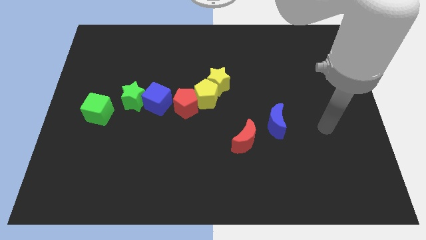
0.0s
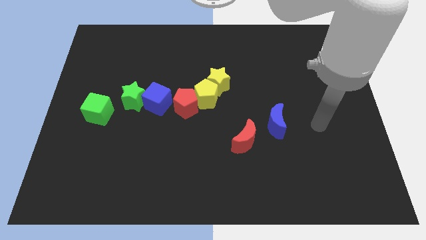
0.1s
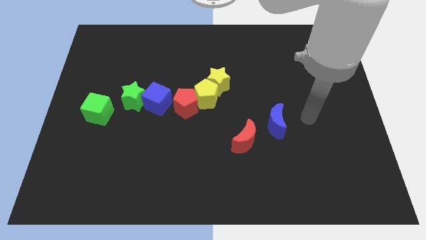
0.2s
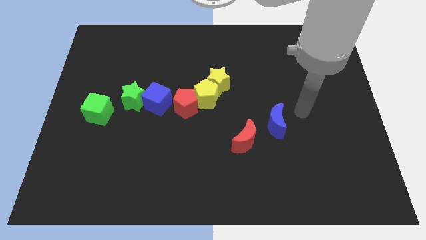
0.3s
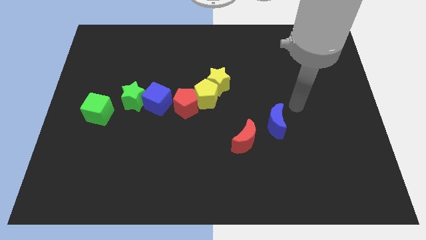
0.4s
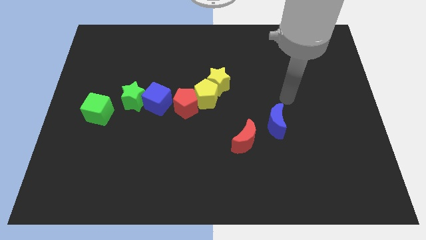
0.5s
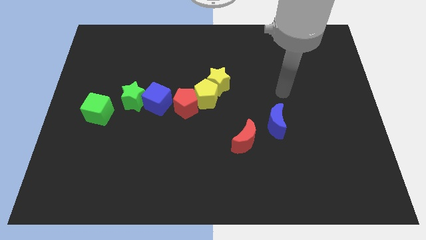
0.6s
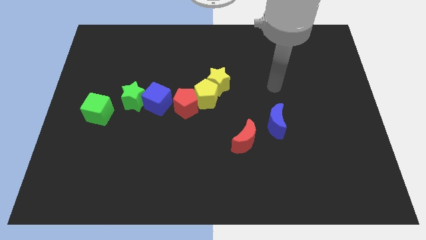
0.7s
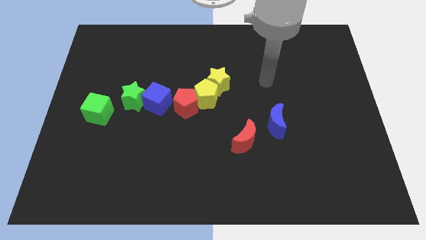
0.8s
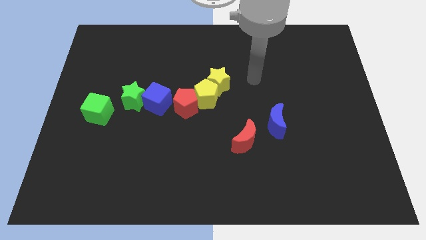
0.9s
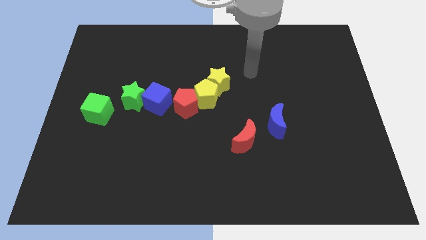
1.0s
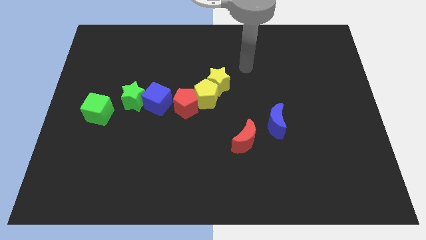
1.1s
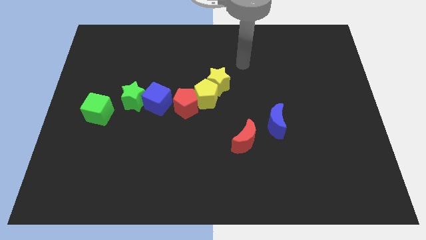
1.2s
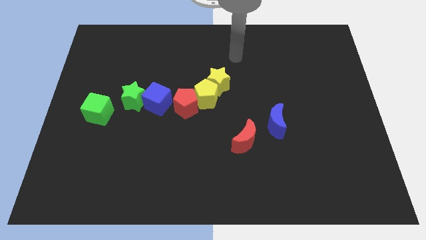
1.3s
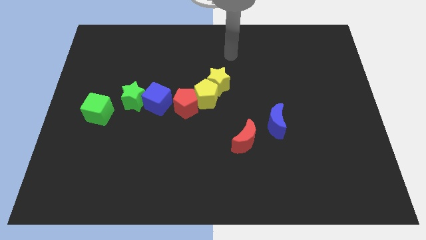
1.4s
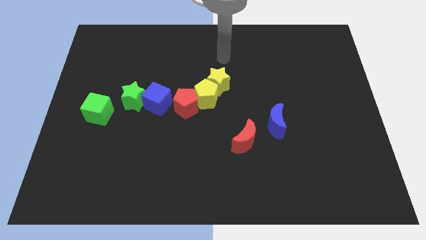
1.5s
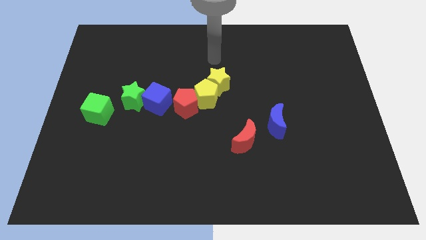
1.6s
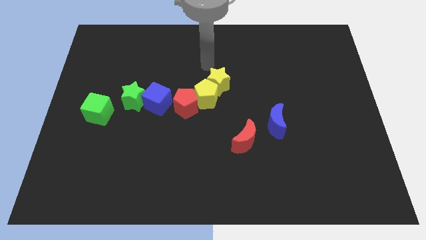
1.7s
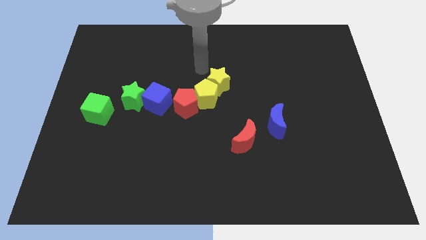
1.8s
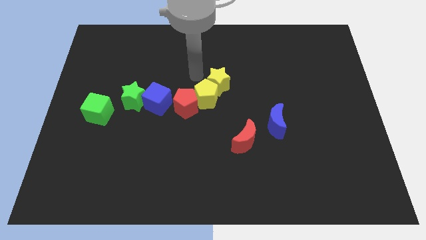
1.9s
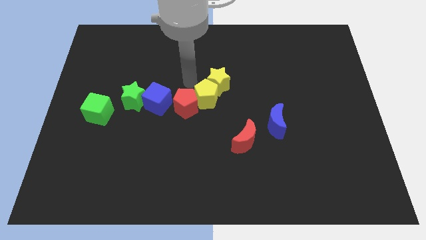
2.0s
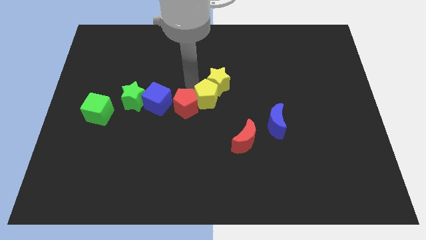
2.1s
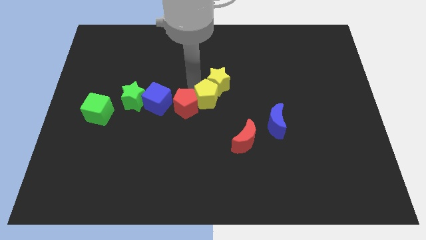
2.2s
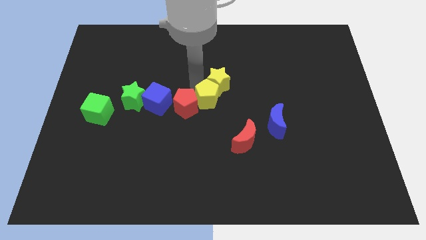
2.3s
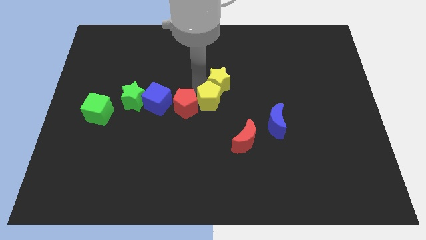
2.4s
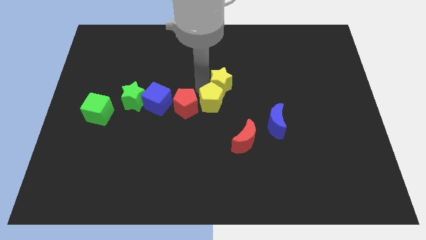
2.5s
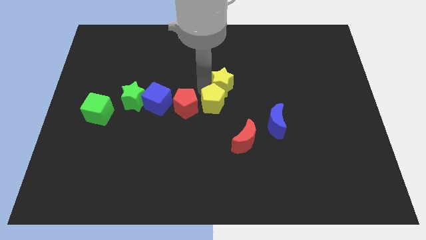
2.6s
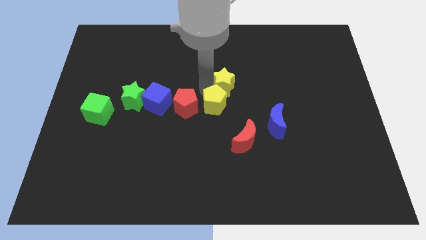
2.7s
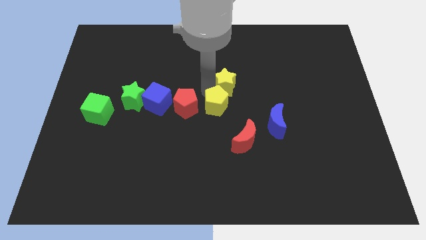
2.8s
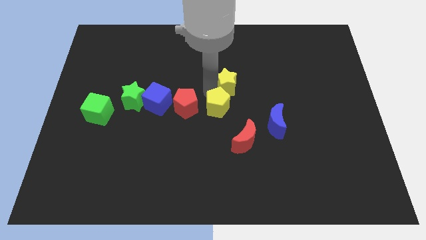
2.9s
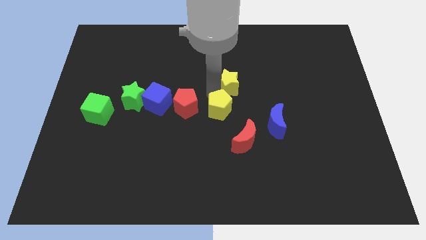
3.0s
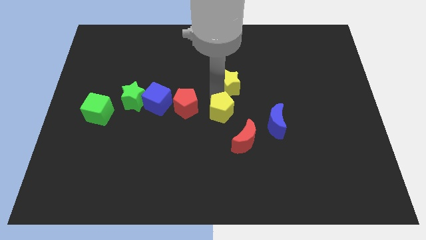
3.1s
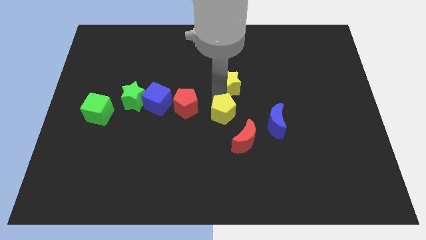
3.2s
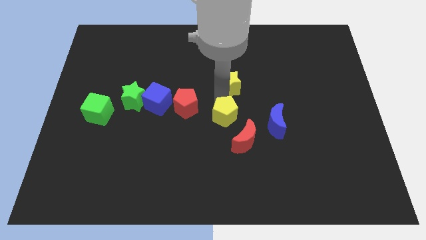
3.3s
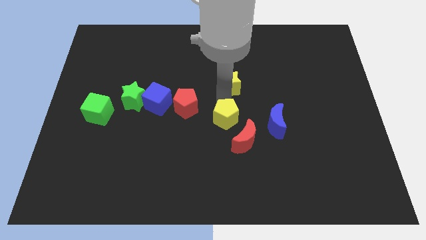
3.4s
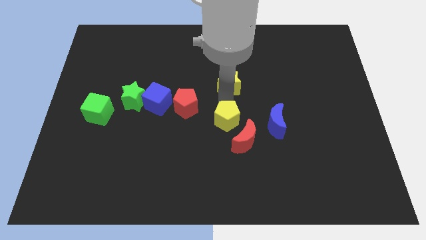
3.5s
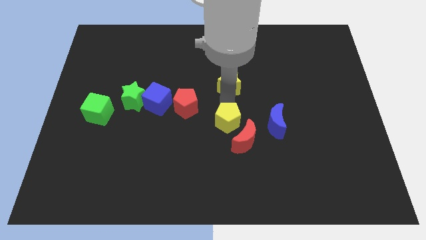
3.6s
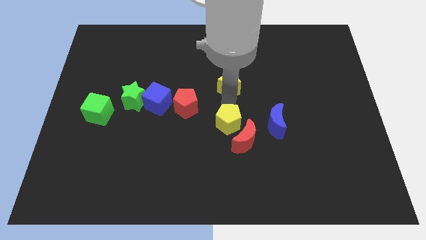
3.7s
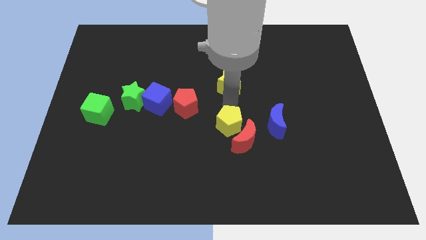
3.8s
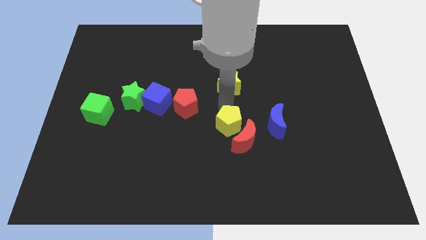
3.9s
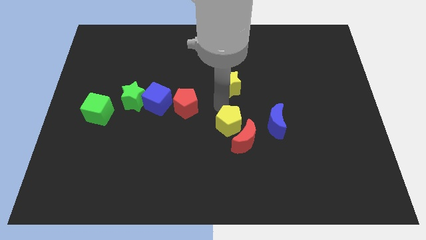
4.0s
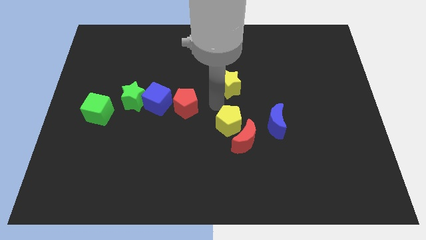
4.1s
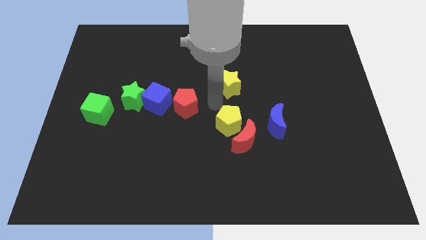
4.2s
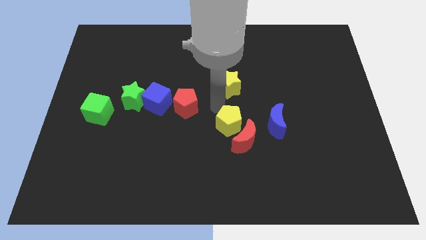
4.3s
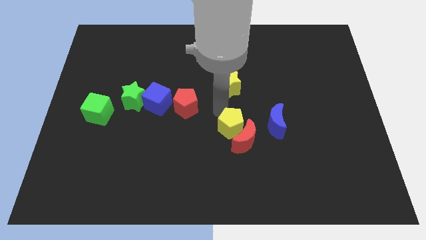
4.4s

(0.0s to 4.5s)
separate the yellow pentagon from the yellow star and red pentagon

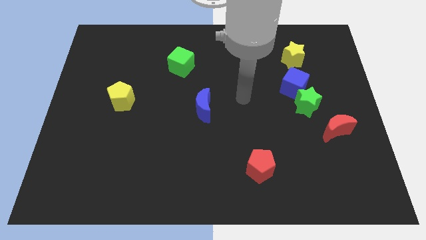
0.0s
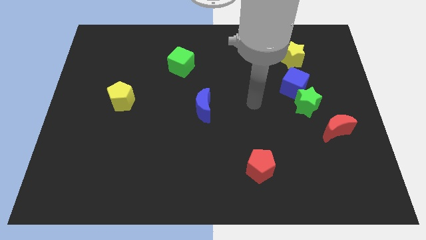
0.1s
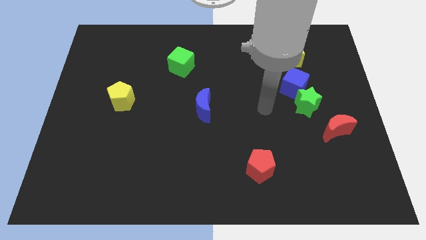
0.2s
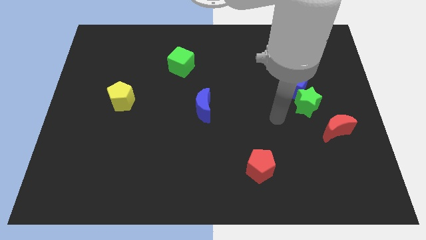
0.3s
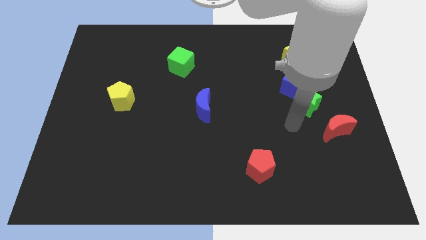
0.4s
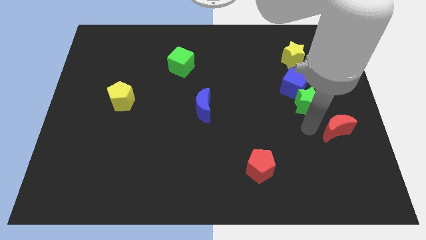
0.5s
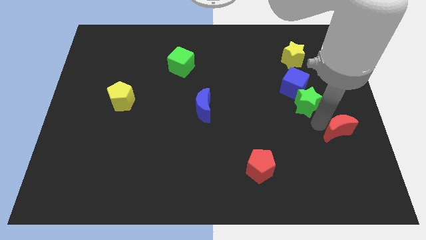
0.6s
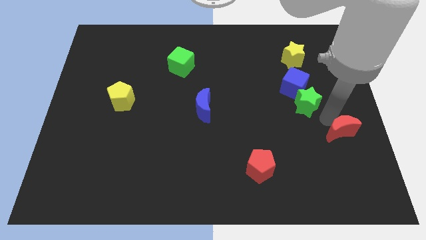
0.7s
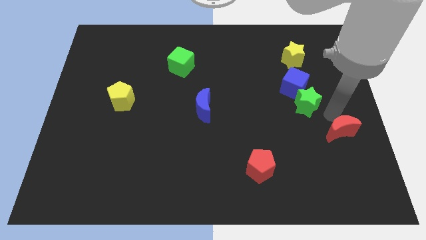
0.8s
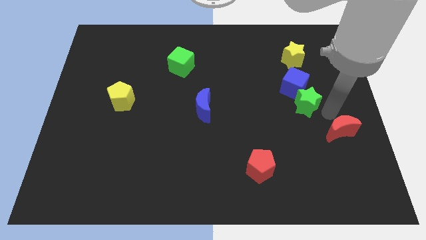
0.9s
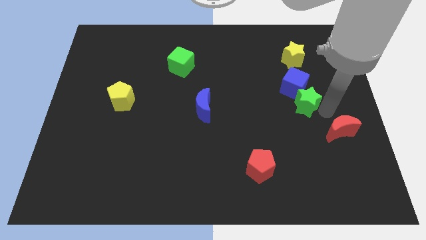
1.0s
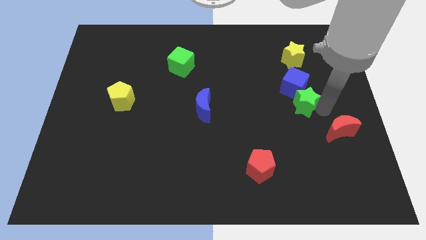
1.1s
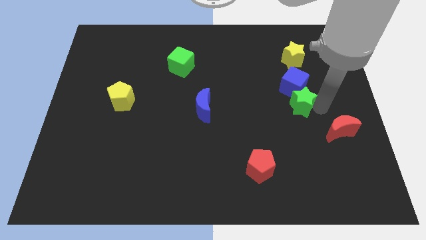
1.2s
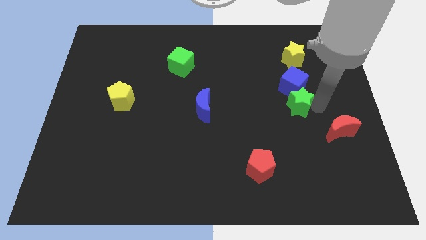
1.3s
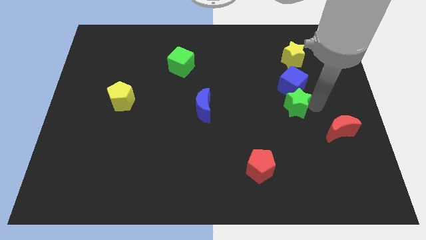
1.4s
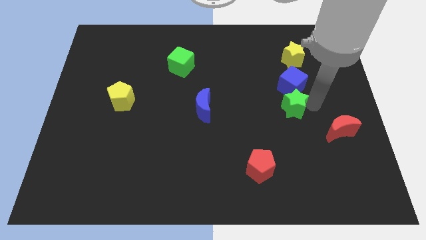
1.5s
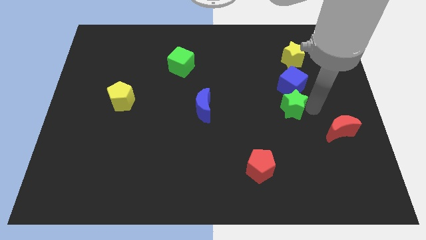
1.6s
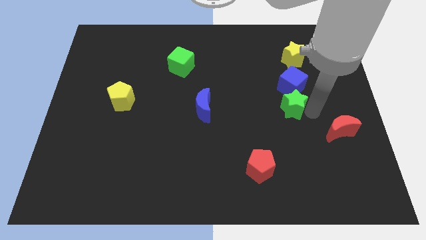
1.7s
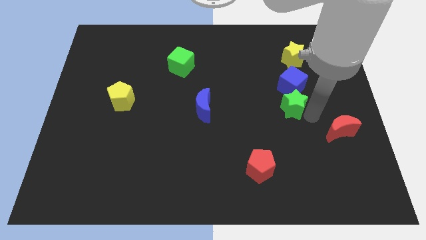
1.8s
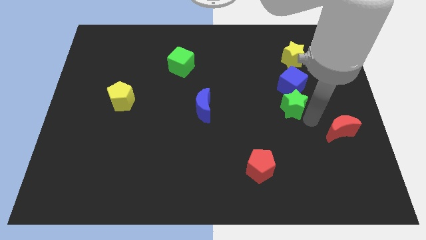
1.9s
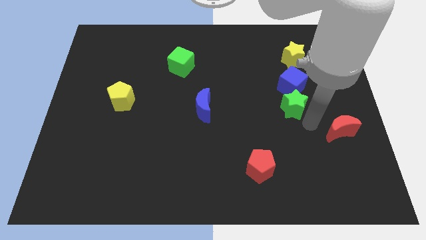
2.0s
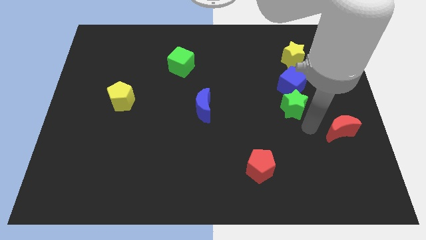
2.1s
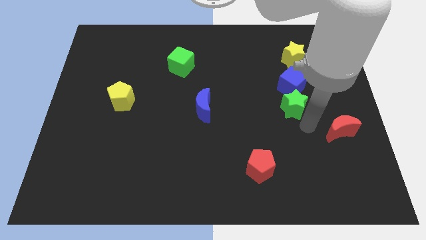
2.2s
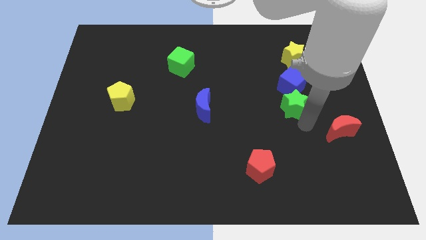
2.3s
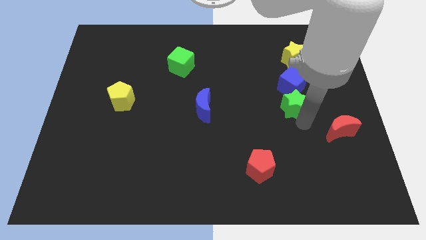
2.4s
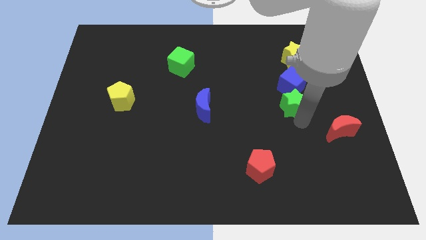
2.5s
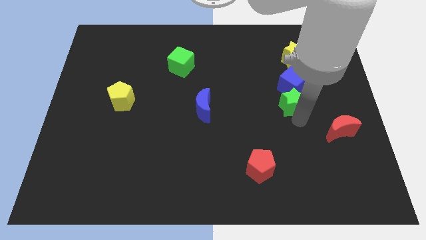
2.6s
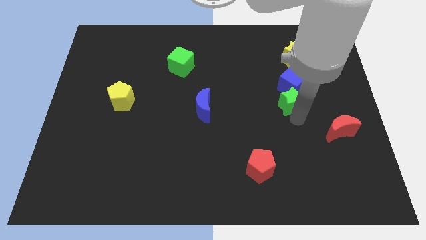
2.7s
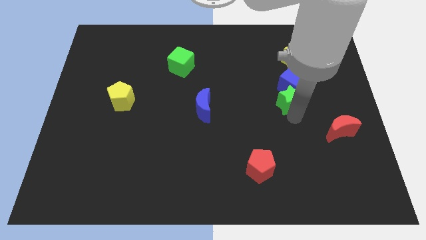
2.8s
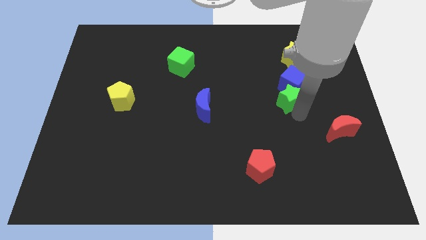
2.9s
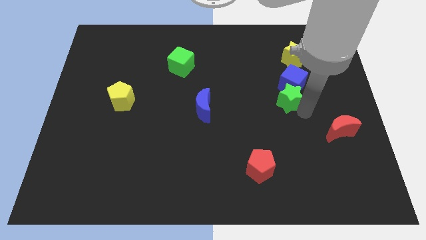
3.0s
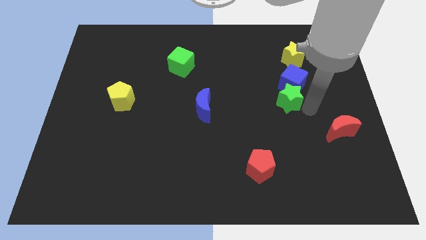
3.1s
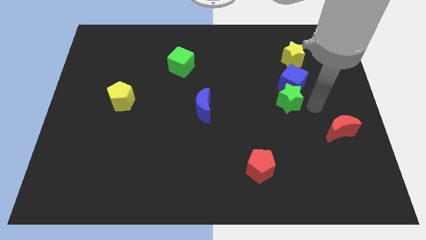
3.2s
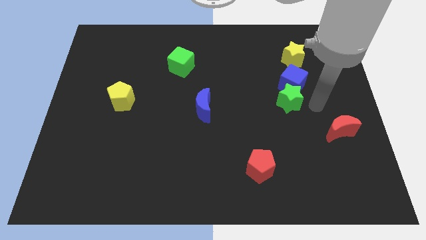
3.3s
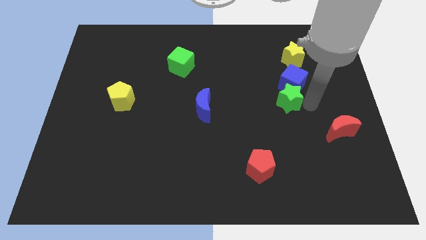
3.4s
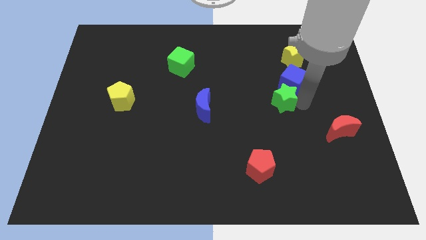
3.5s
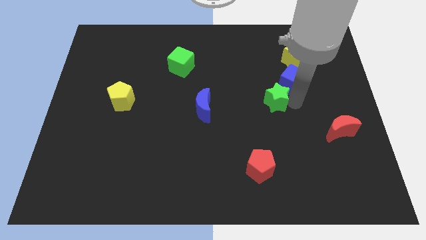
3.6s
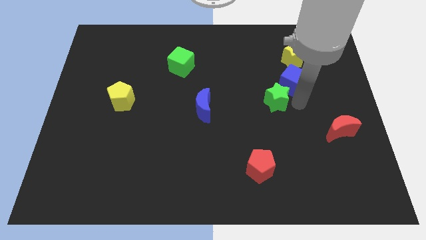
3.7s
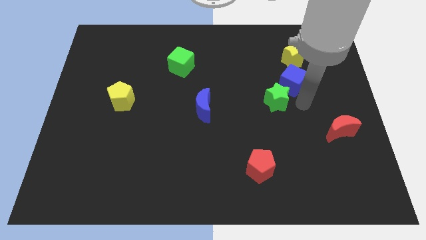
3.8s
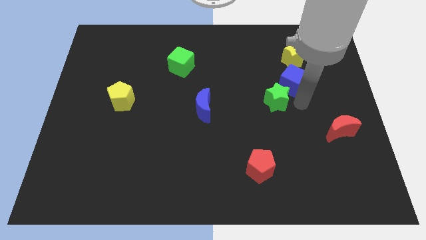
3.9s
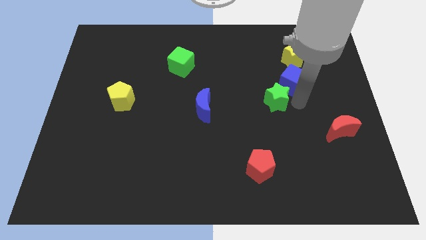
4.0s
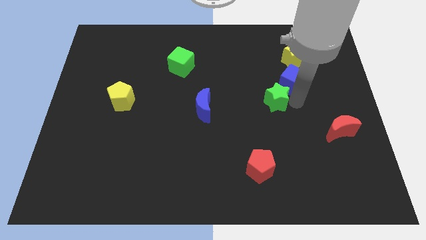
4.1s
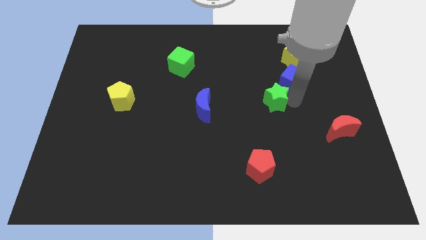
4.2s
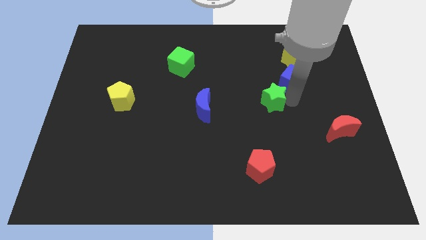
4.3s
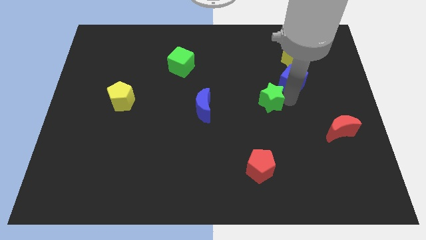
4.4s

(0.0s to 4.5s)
separate the green star from the blue cube and red moon

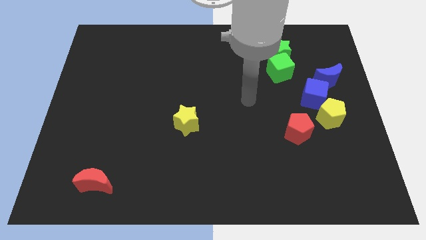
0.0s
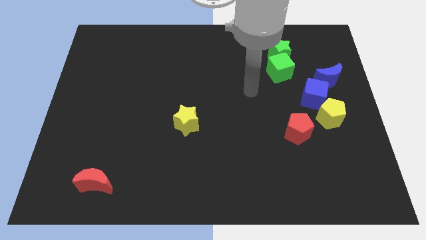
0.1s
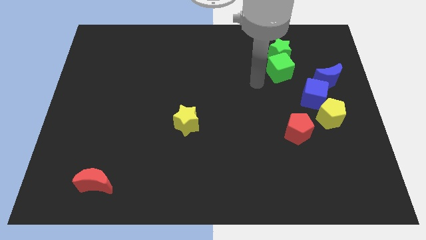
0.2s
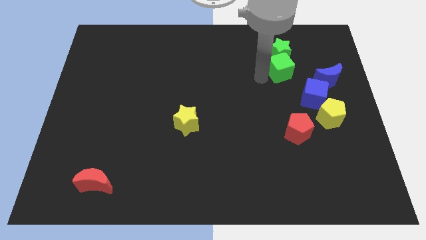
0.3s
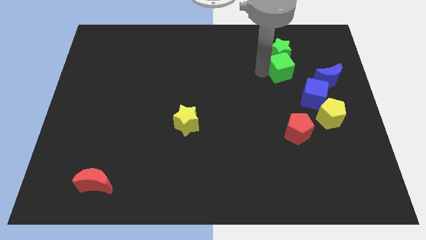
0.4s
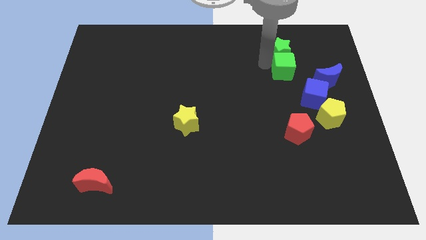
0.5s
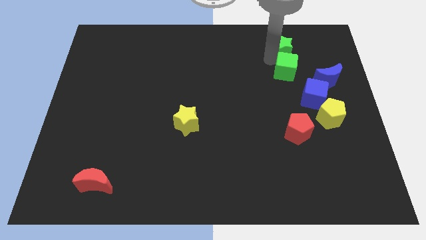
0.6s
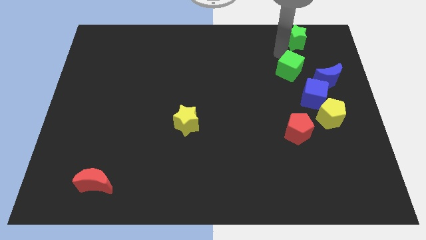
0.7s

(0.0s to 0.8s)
separate the green cube from the green star
